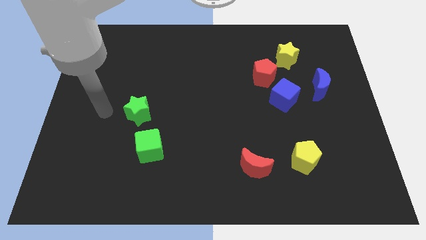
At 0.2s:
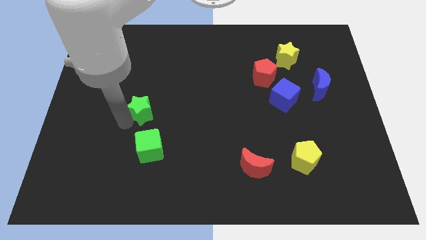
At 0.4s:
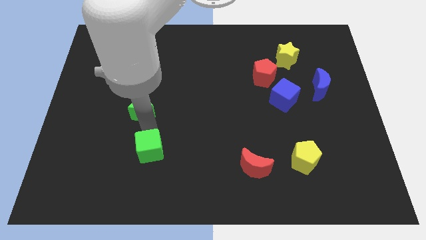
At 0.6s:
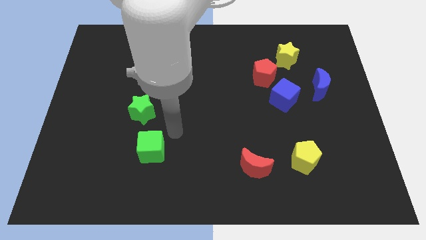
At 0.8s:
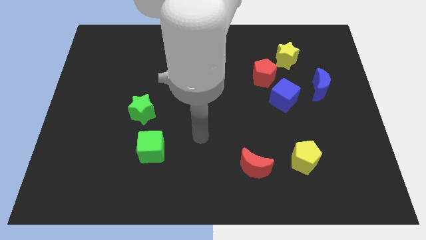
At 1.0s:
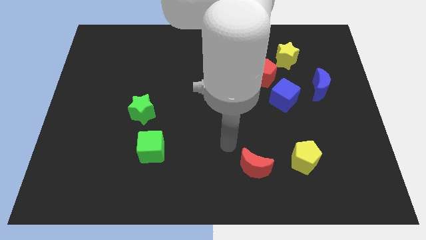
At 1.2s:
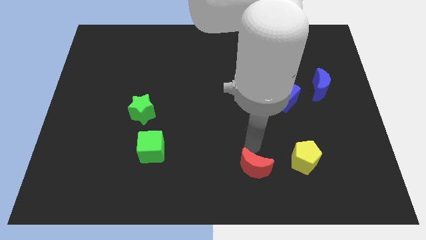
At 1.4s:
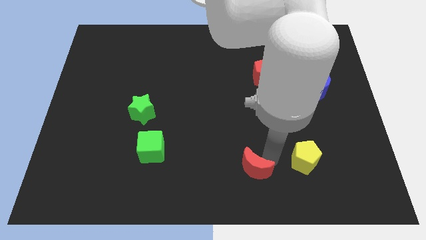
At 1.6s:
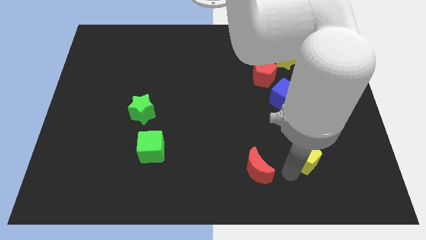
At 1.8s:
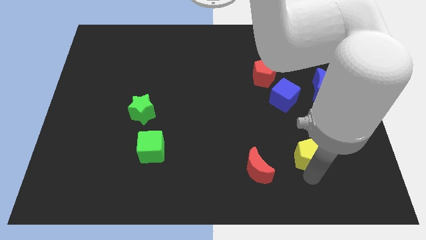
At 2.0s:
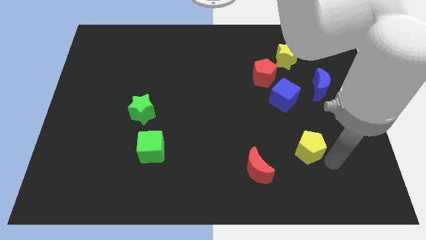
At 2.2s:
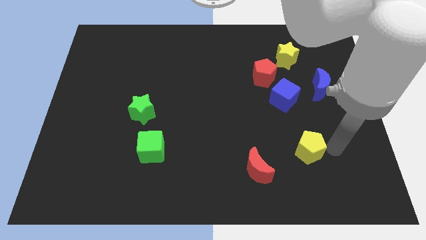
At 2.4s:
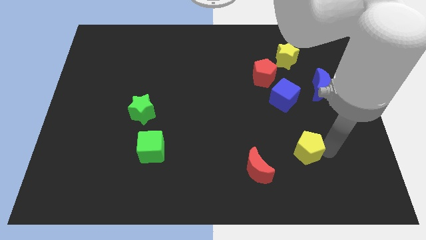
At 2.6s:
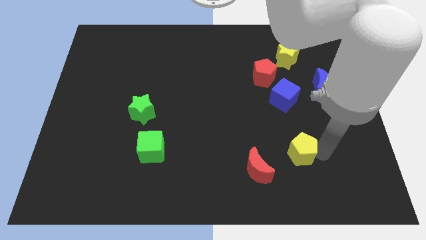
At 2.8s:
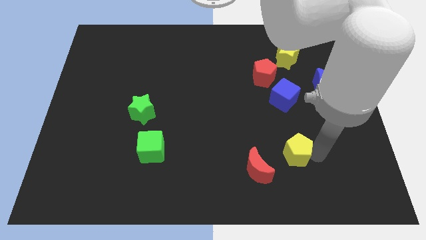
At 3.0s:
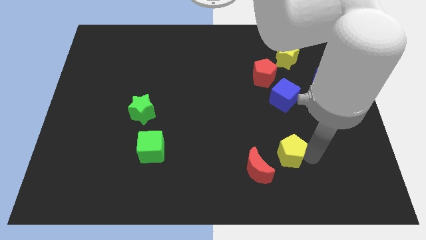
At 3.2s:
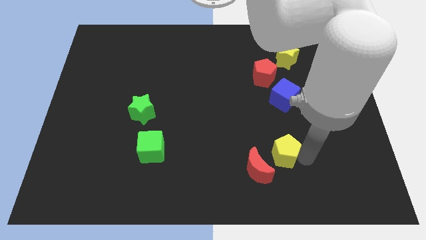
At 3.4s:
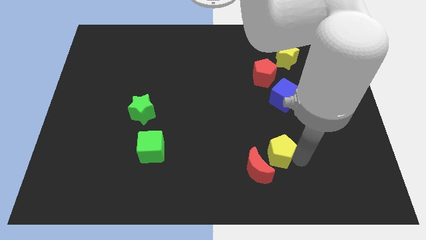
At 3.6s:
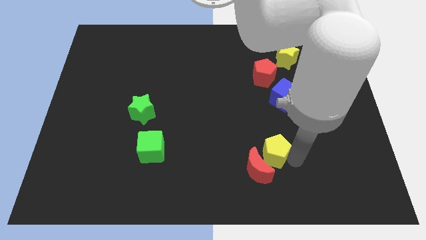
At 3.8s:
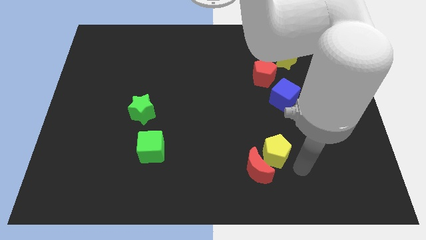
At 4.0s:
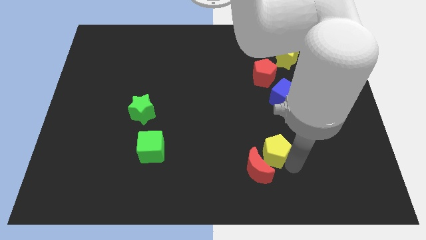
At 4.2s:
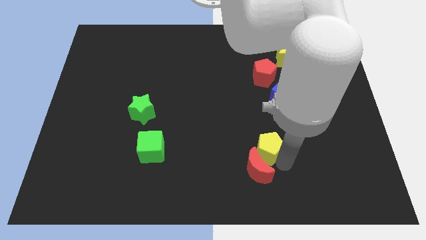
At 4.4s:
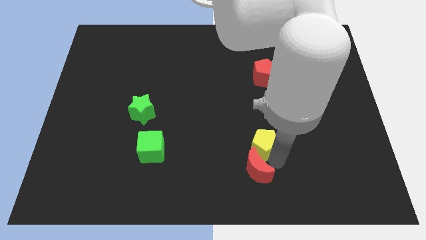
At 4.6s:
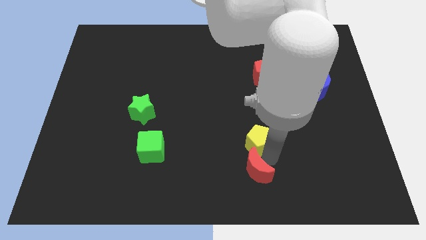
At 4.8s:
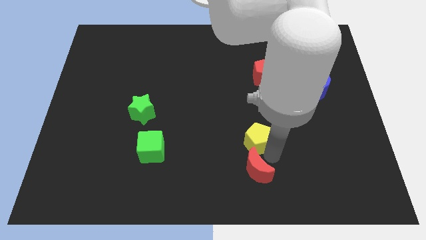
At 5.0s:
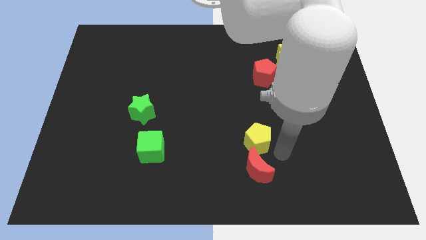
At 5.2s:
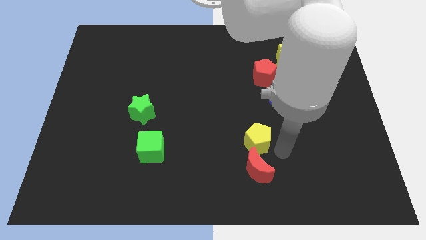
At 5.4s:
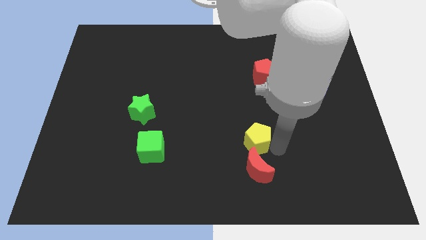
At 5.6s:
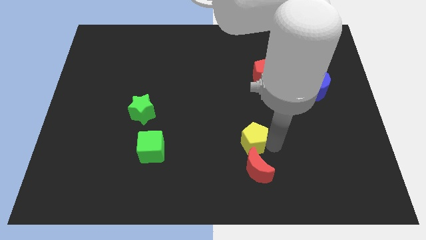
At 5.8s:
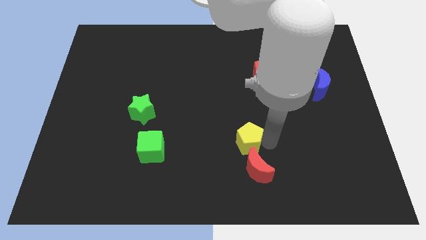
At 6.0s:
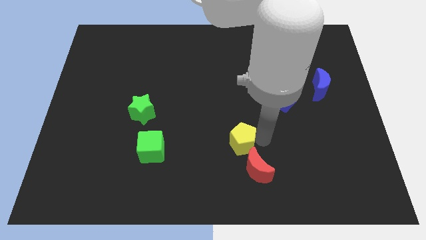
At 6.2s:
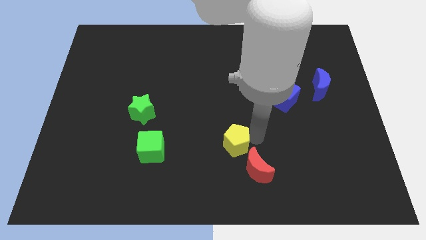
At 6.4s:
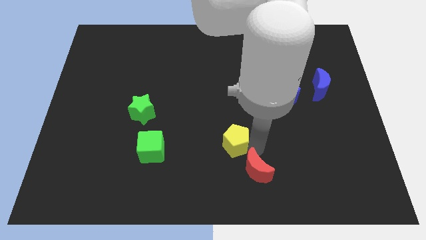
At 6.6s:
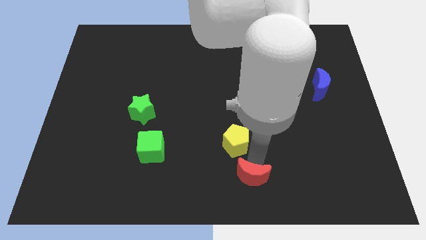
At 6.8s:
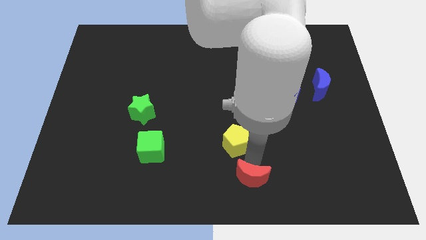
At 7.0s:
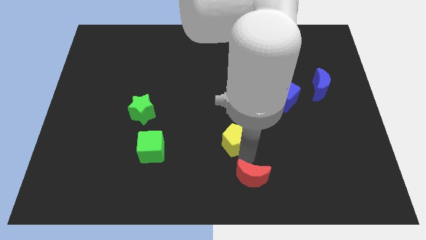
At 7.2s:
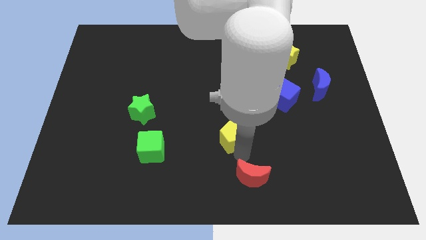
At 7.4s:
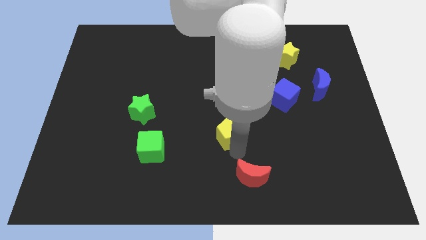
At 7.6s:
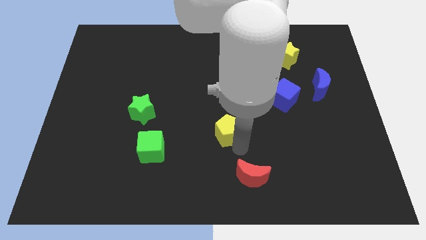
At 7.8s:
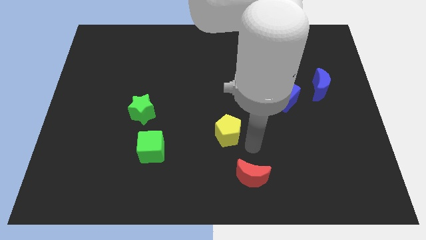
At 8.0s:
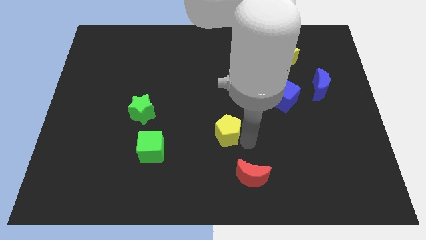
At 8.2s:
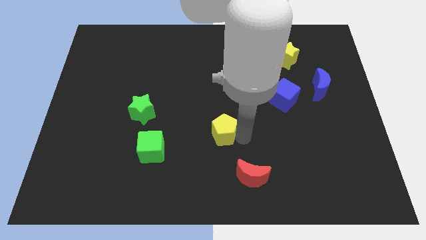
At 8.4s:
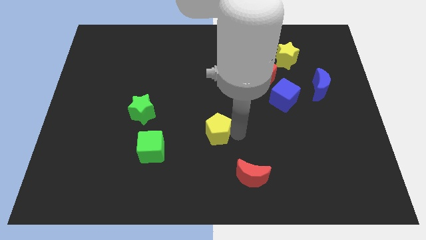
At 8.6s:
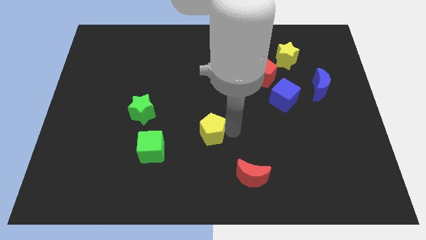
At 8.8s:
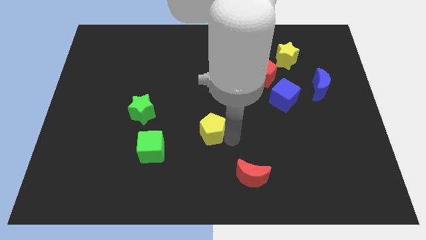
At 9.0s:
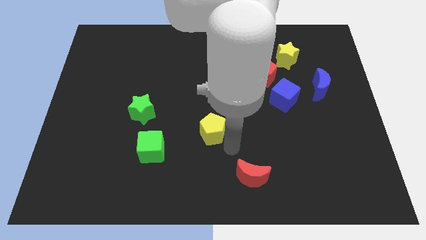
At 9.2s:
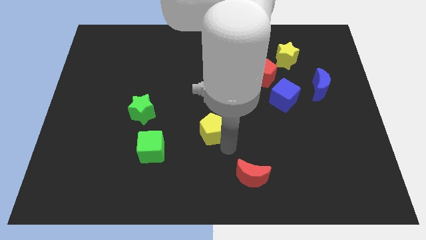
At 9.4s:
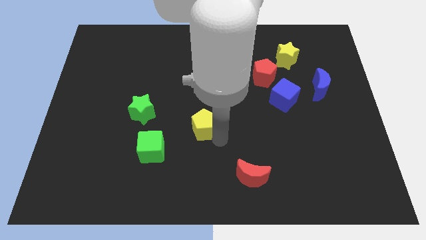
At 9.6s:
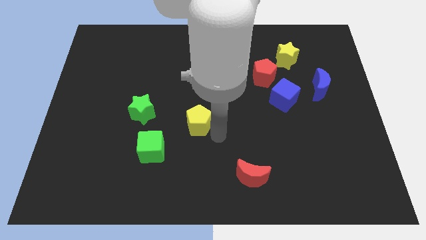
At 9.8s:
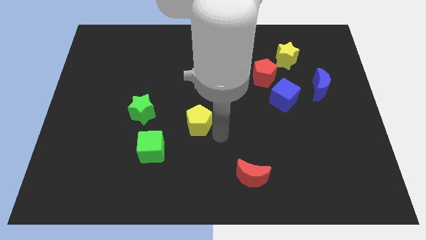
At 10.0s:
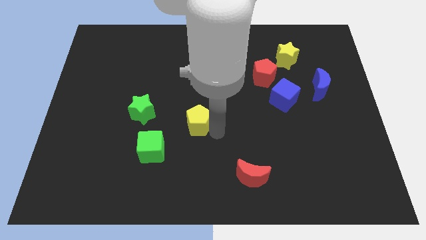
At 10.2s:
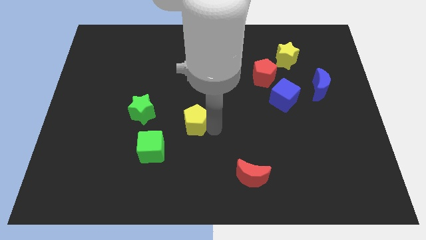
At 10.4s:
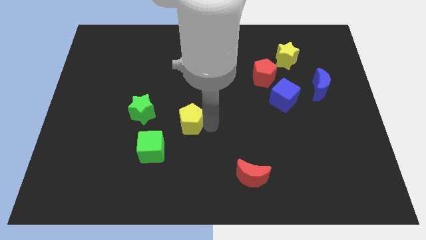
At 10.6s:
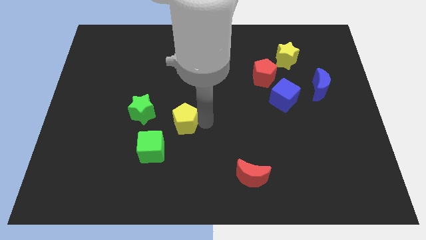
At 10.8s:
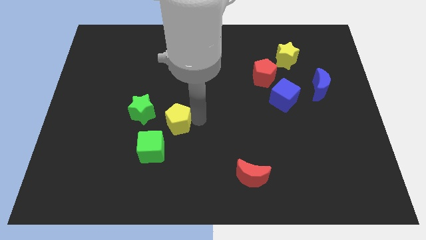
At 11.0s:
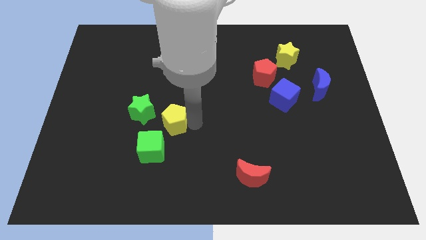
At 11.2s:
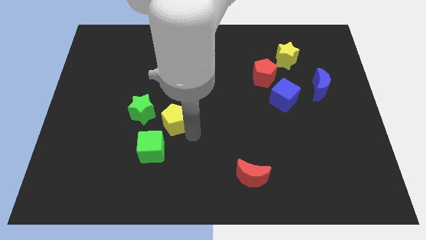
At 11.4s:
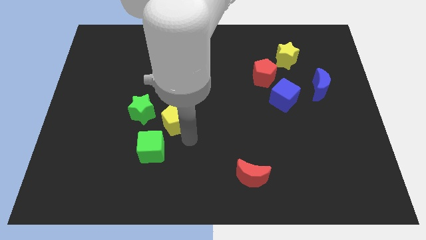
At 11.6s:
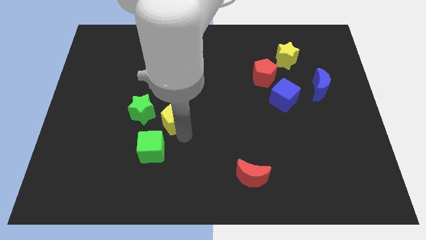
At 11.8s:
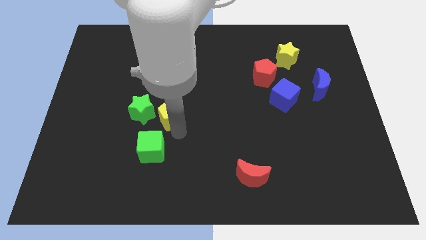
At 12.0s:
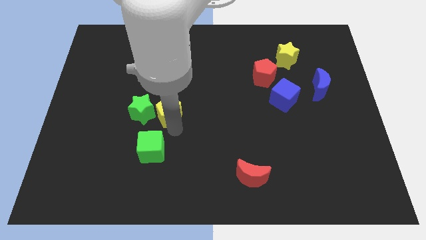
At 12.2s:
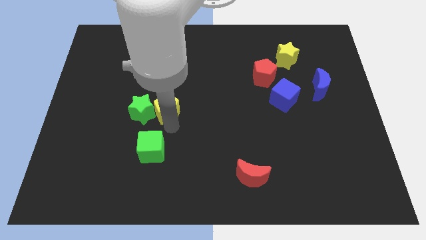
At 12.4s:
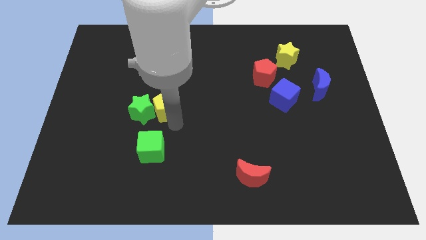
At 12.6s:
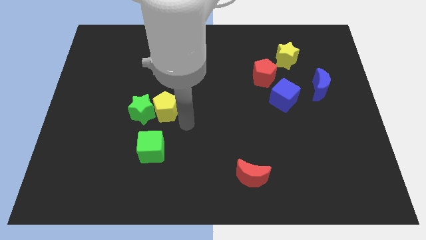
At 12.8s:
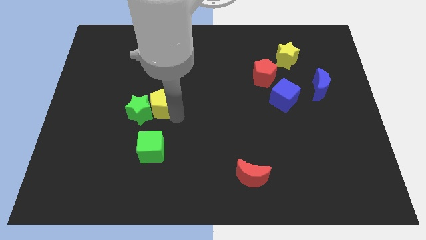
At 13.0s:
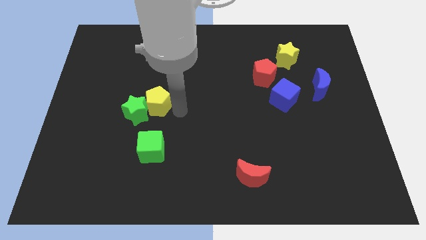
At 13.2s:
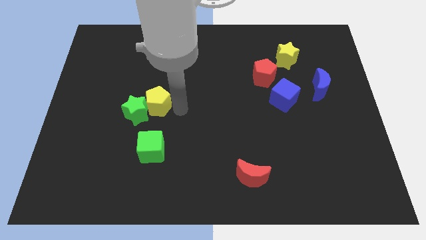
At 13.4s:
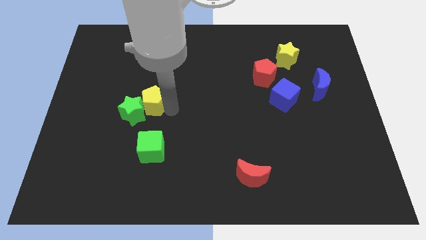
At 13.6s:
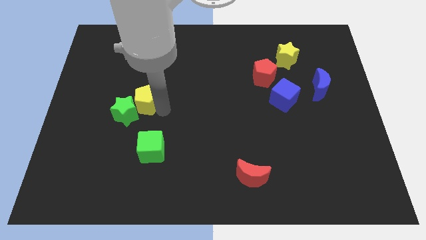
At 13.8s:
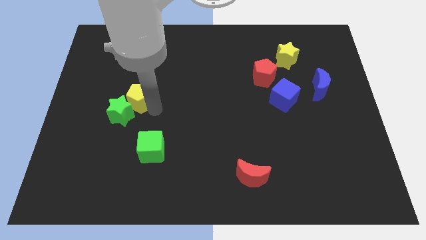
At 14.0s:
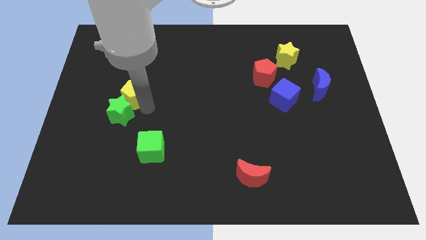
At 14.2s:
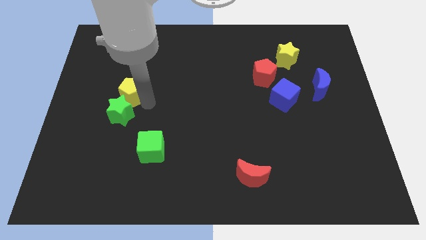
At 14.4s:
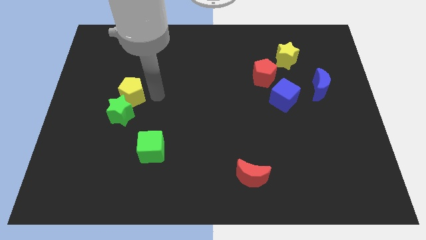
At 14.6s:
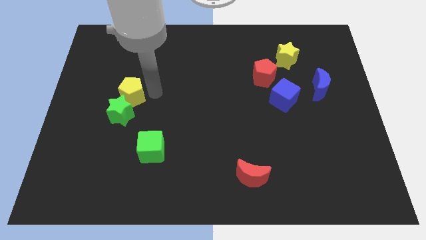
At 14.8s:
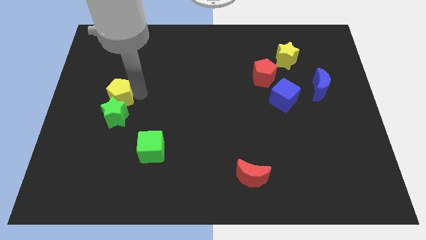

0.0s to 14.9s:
push the yellow pentagon diagonally up and to the left of the green star
